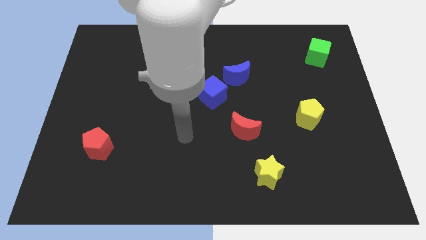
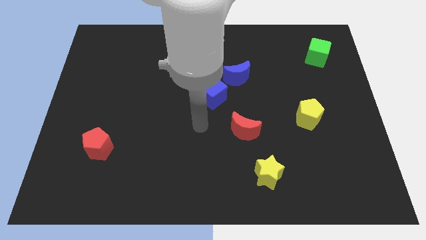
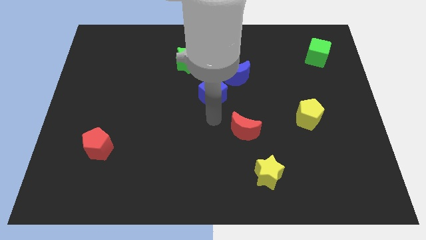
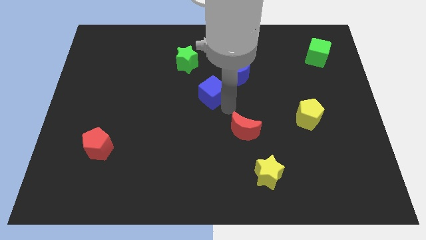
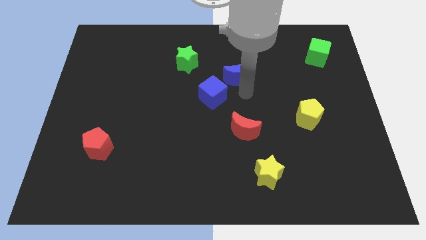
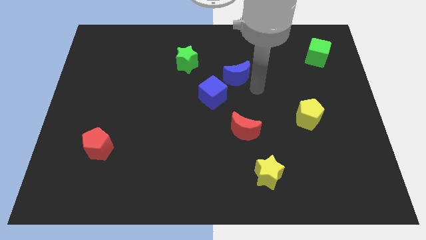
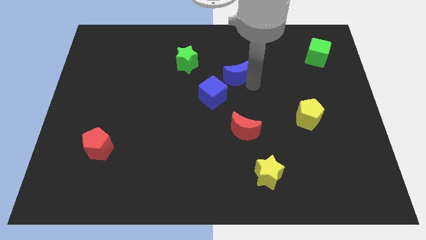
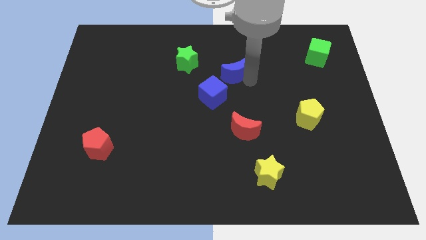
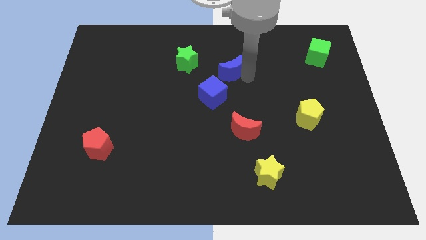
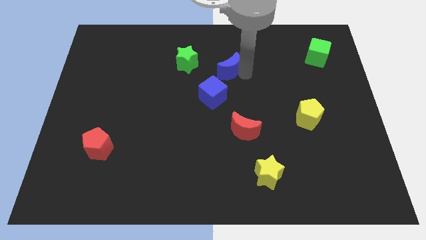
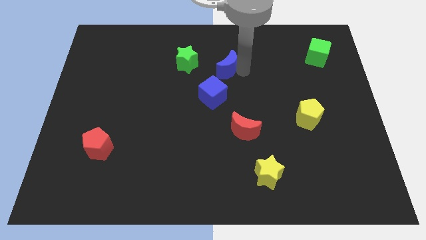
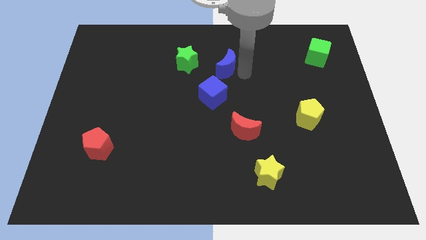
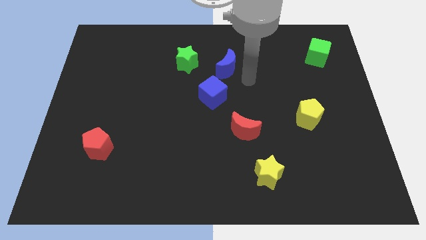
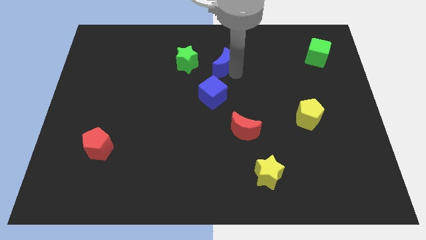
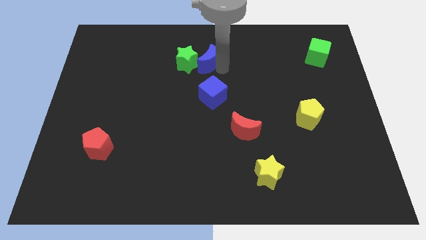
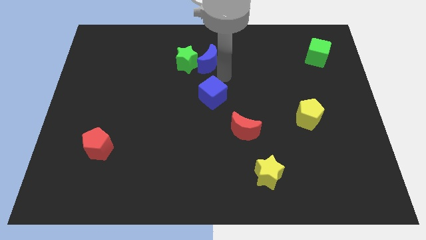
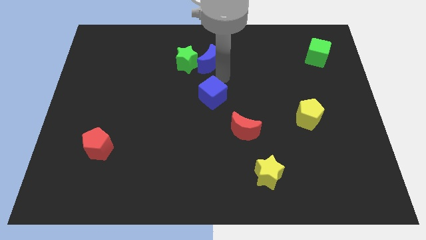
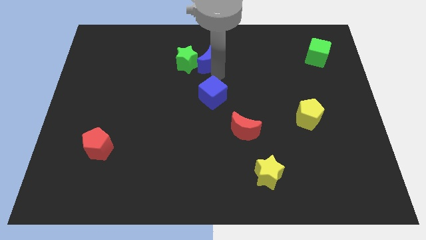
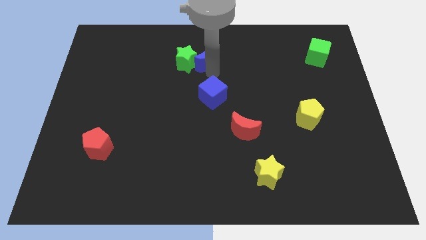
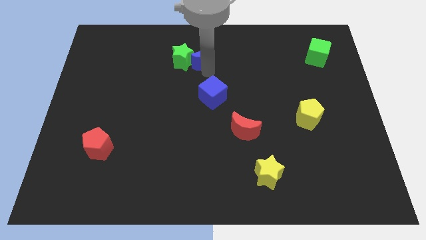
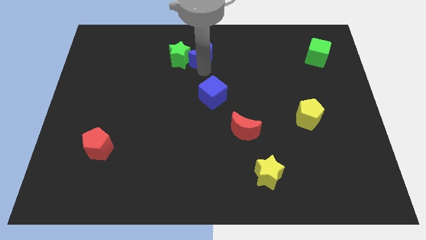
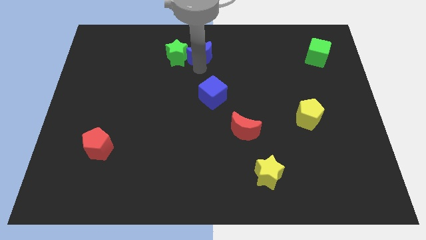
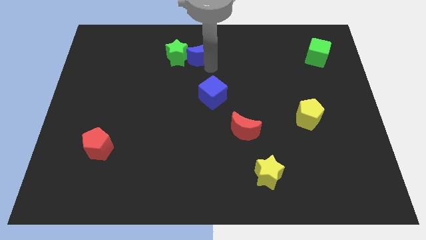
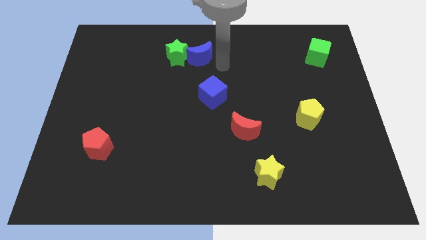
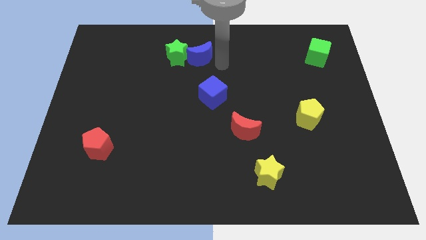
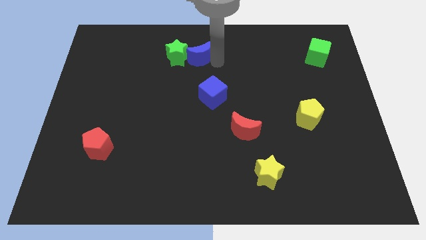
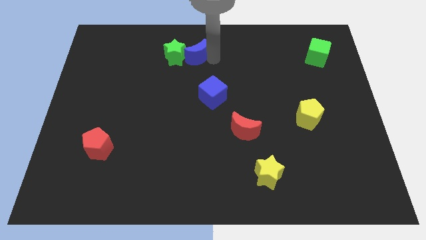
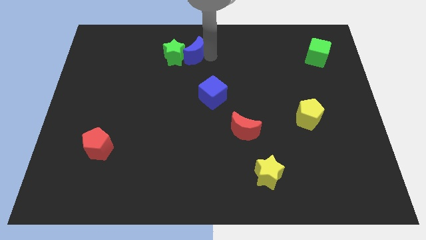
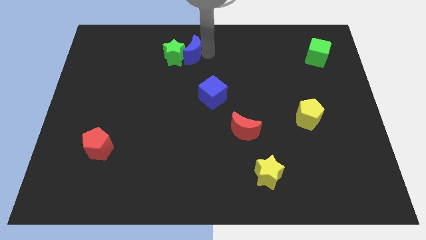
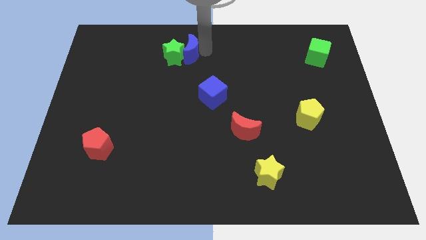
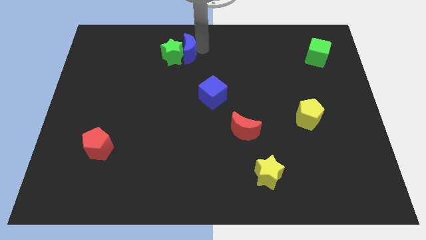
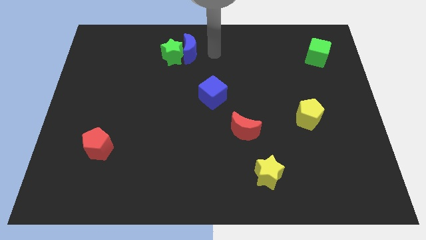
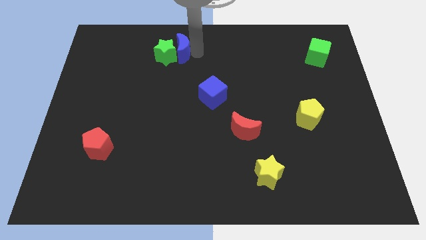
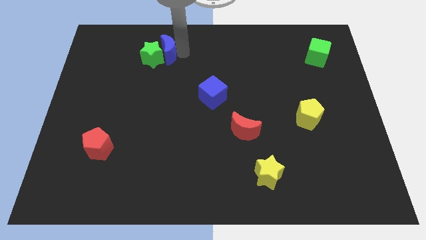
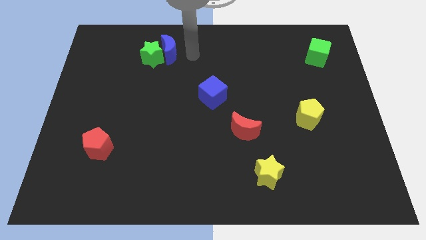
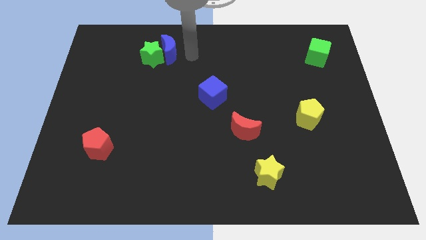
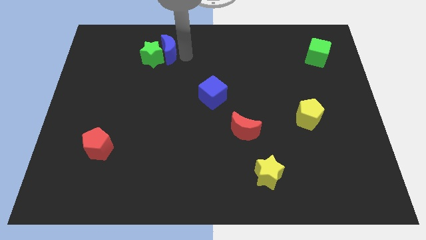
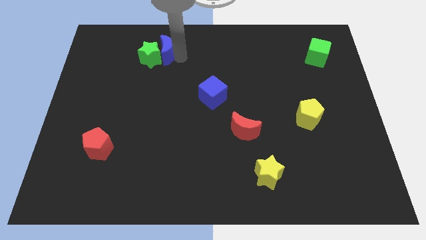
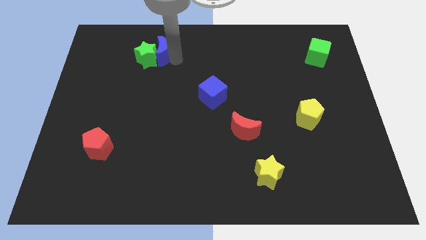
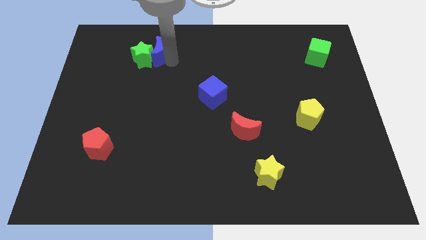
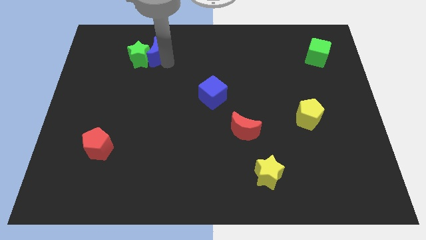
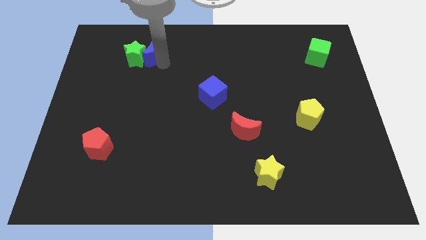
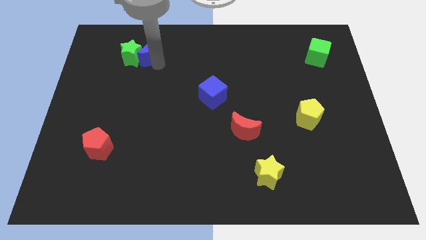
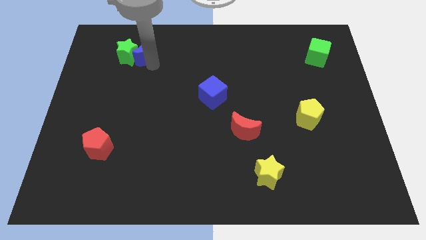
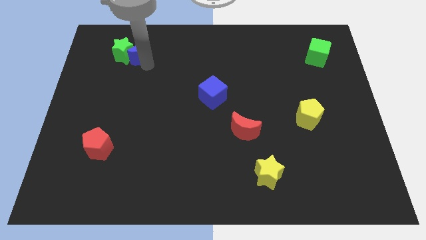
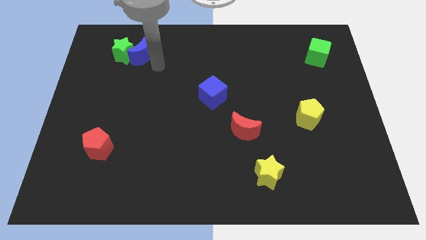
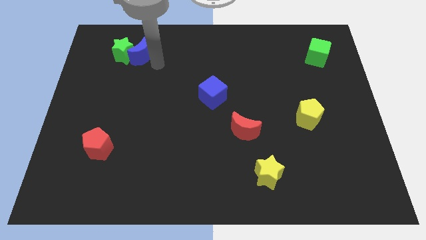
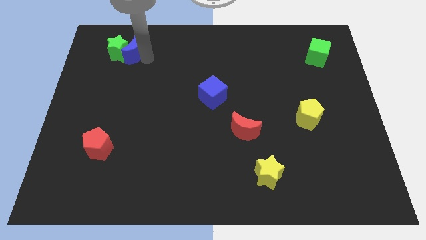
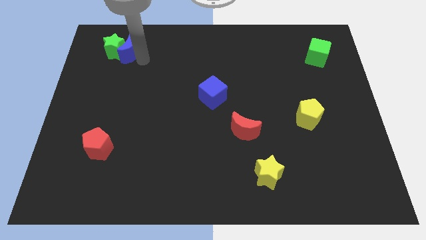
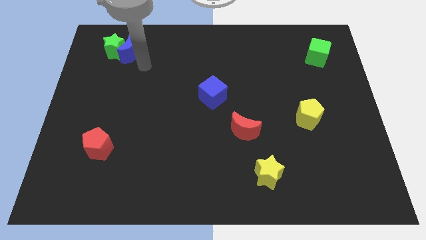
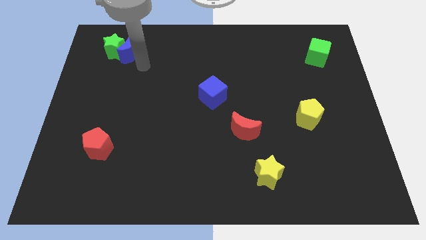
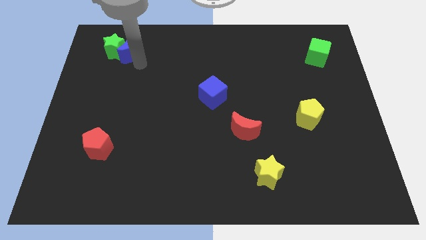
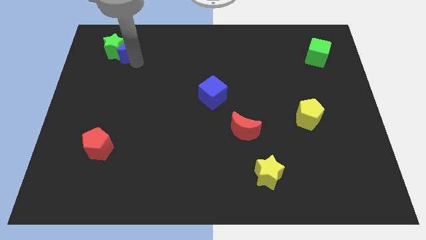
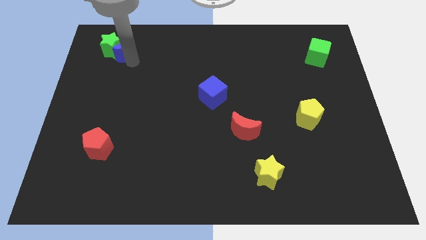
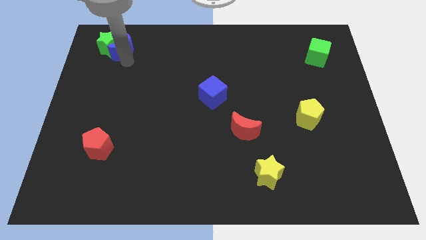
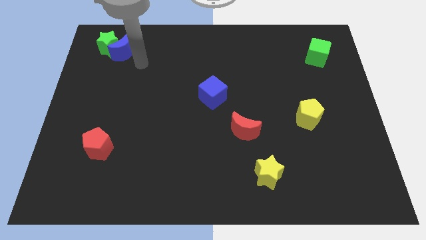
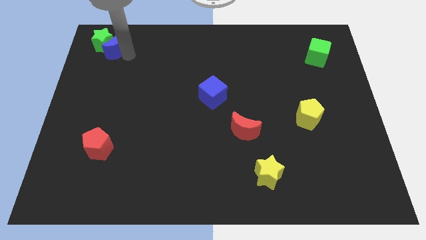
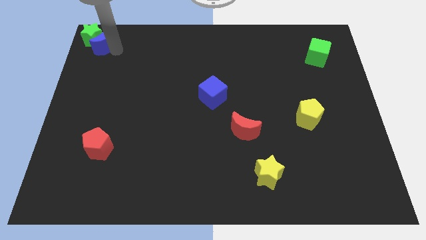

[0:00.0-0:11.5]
push the blue moon to the top left of the board

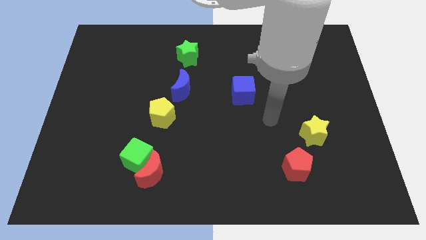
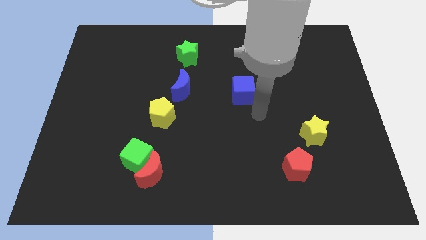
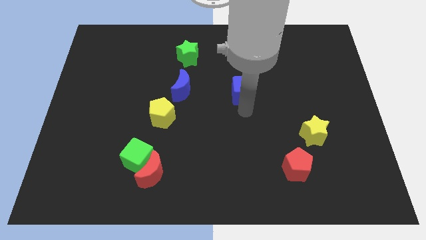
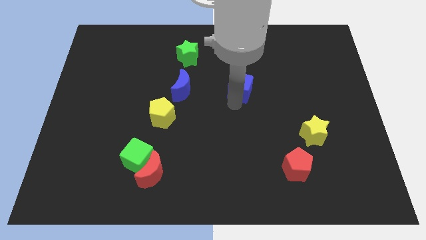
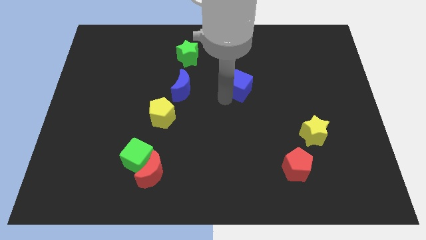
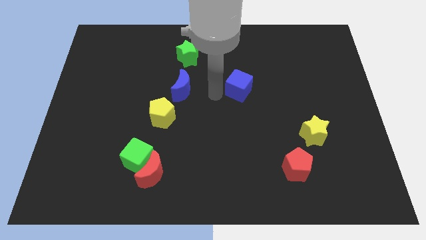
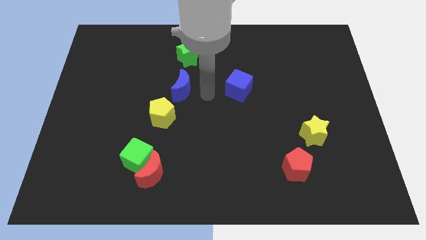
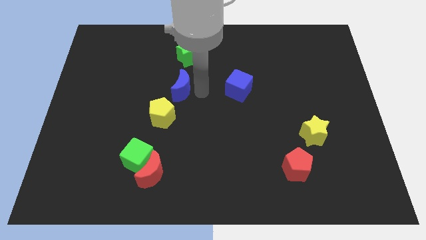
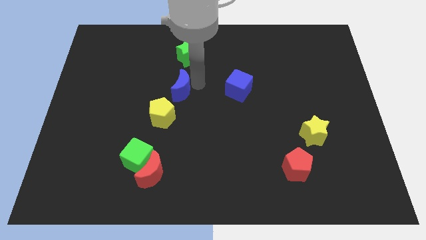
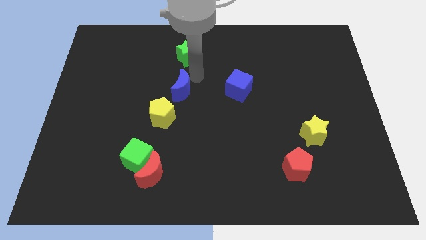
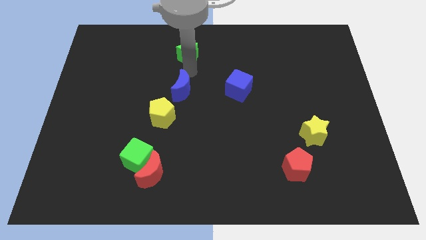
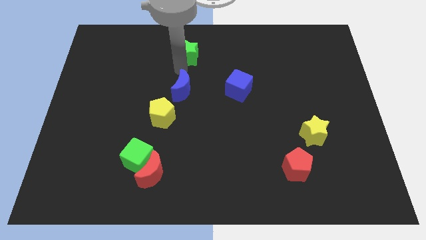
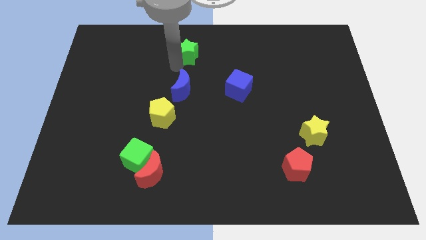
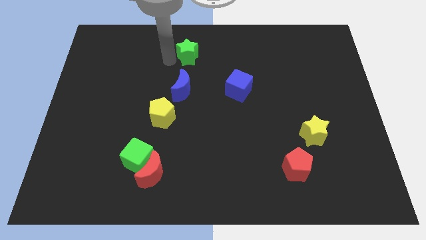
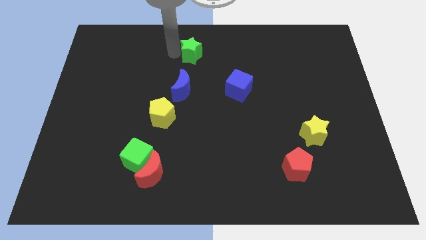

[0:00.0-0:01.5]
put the green star to the top side
